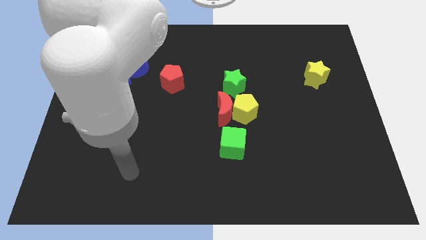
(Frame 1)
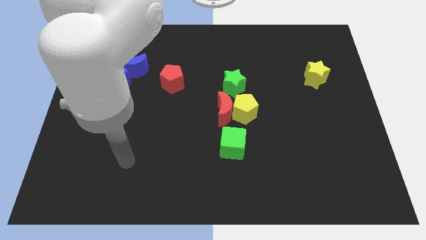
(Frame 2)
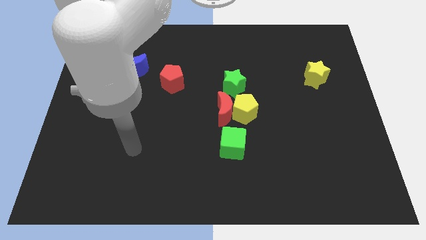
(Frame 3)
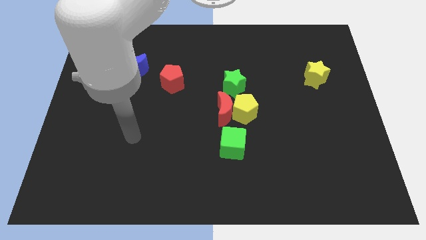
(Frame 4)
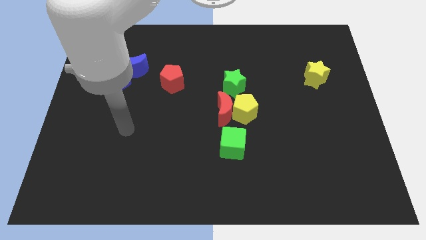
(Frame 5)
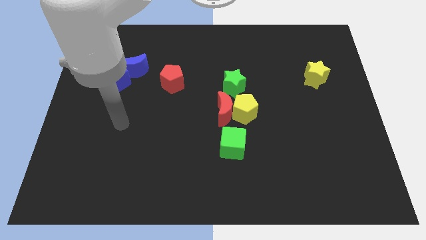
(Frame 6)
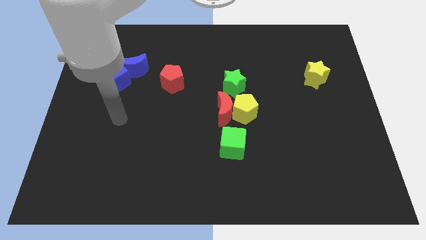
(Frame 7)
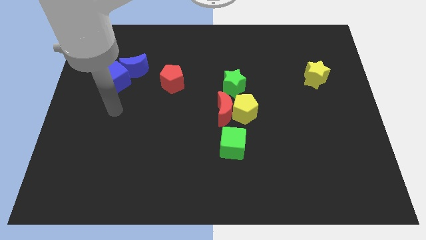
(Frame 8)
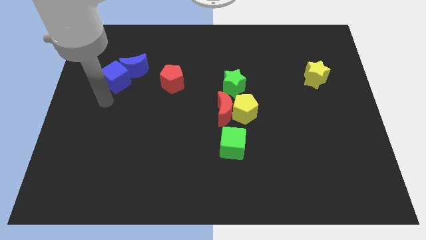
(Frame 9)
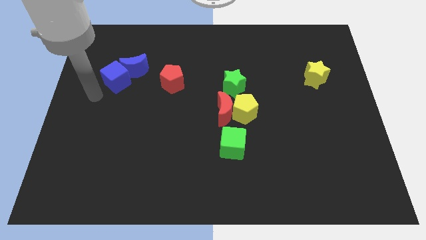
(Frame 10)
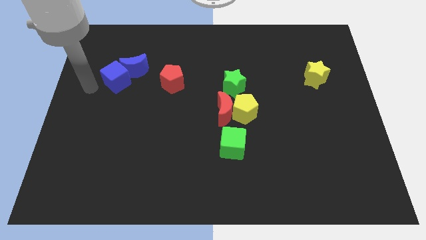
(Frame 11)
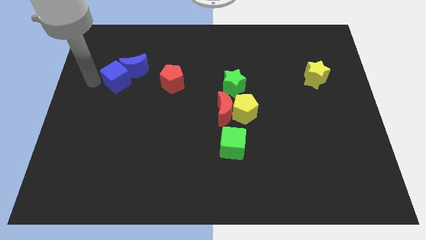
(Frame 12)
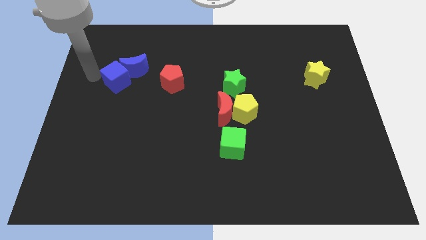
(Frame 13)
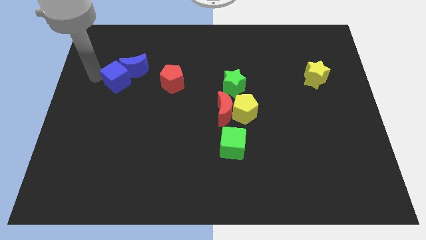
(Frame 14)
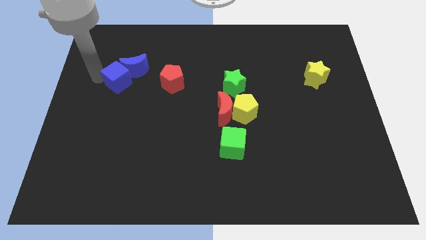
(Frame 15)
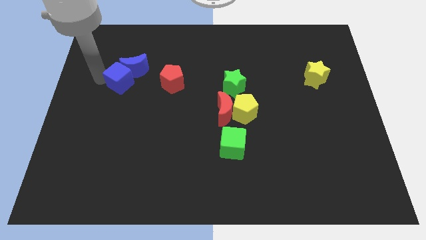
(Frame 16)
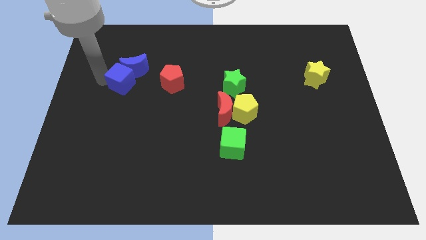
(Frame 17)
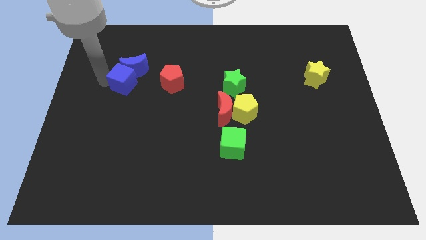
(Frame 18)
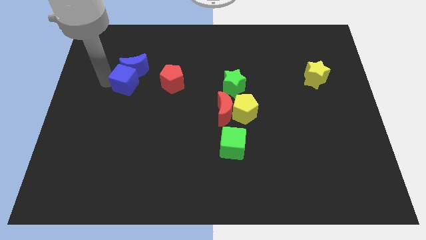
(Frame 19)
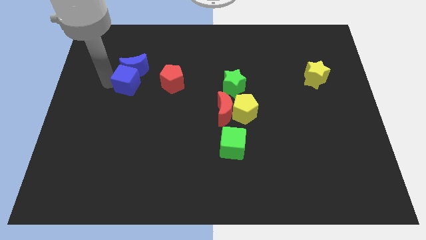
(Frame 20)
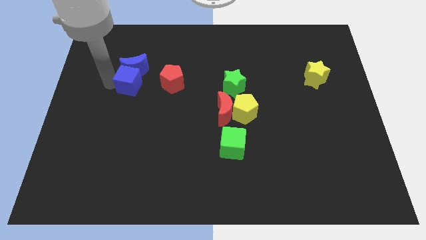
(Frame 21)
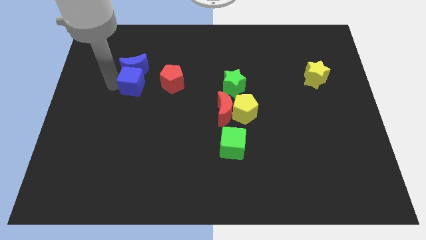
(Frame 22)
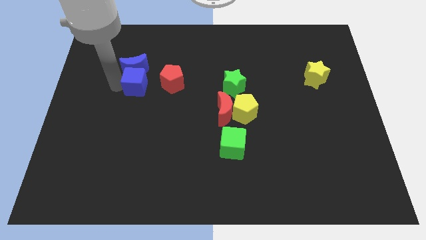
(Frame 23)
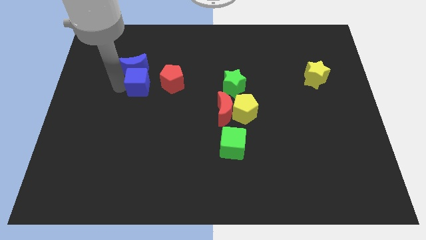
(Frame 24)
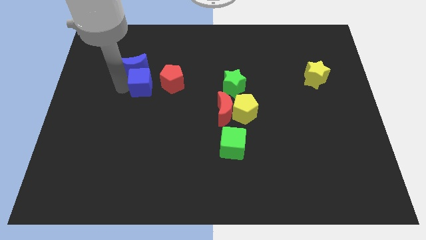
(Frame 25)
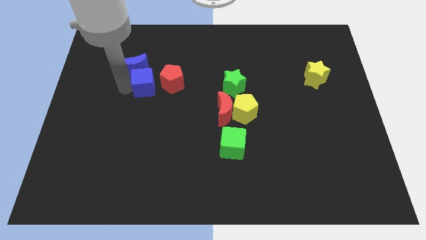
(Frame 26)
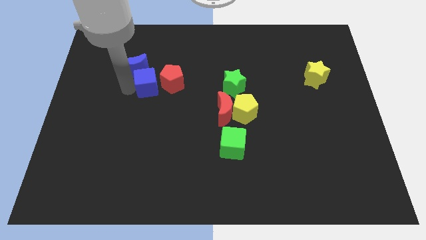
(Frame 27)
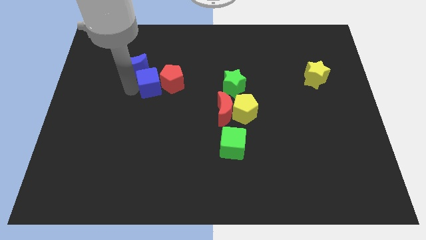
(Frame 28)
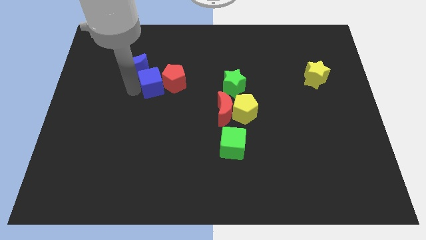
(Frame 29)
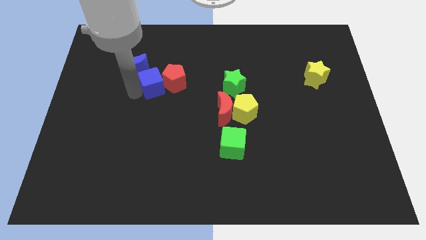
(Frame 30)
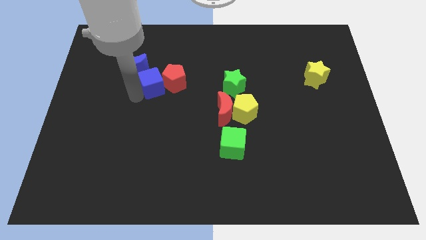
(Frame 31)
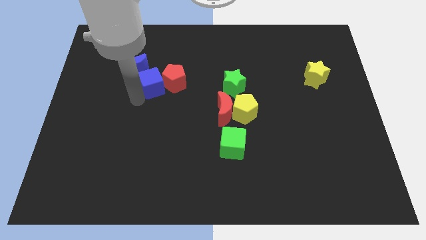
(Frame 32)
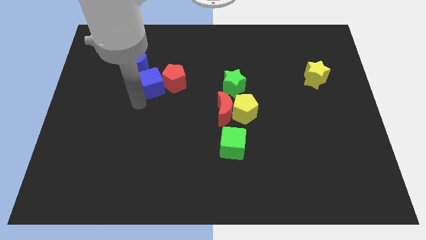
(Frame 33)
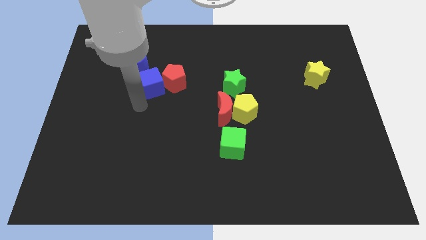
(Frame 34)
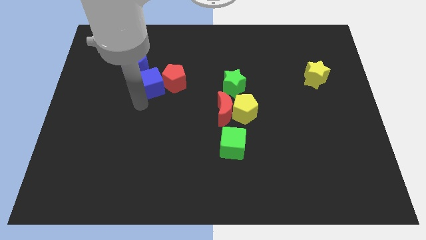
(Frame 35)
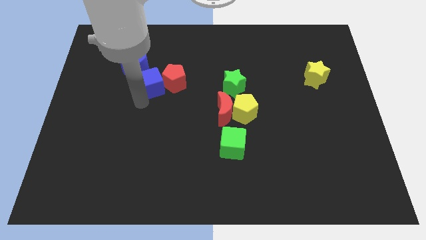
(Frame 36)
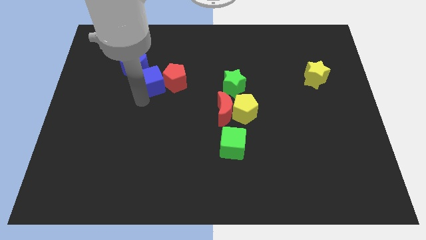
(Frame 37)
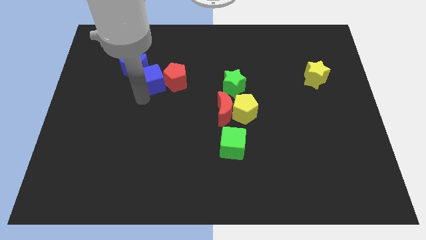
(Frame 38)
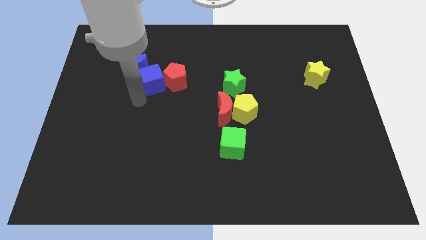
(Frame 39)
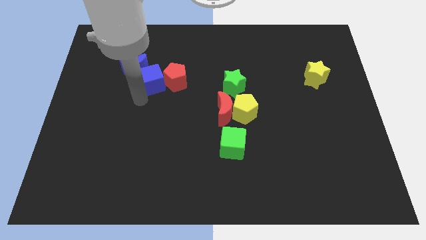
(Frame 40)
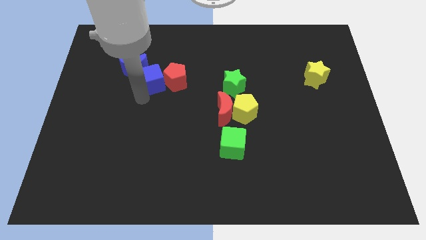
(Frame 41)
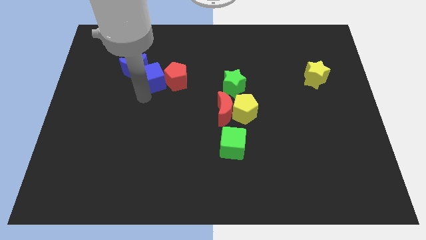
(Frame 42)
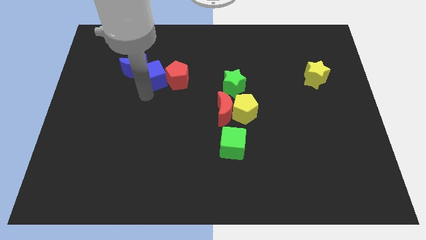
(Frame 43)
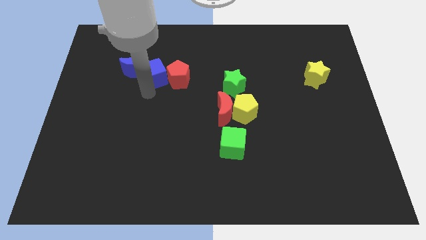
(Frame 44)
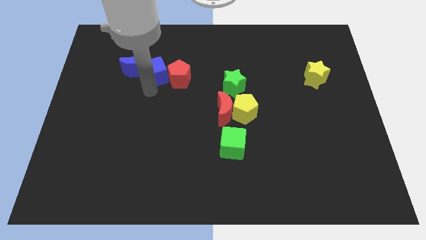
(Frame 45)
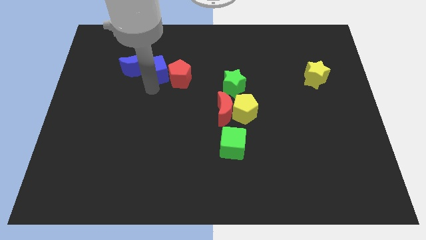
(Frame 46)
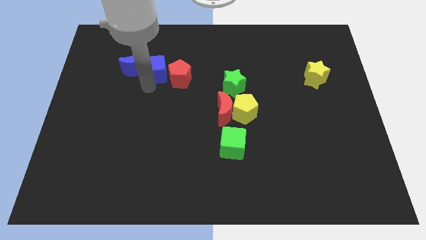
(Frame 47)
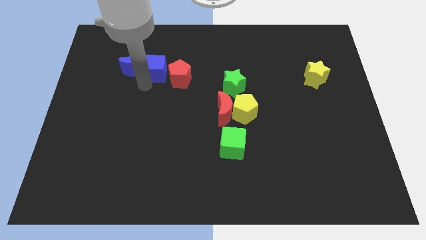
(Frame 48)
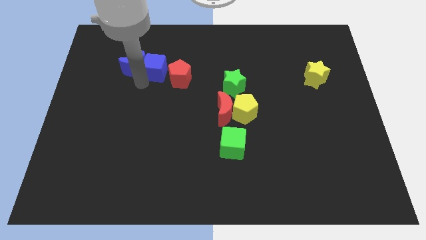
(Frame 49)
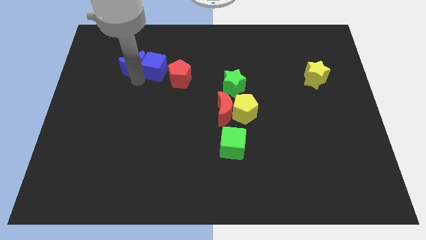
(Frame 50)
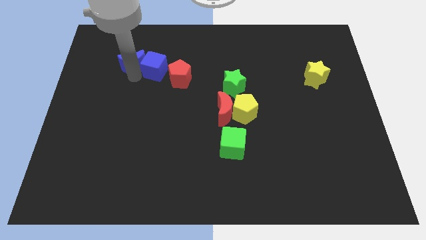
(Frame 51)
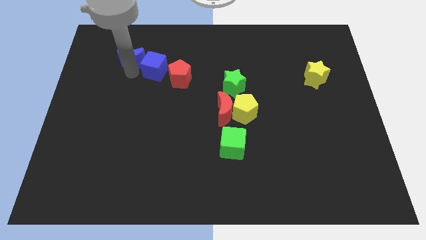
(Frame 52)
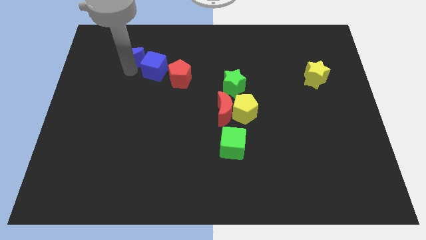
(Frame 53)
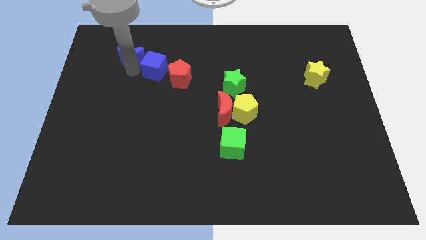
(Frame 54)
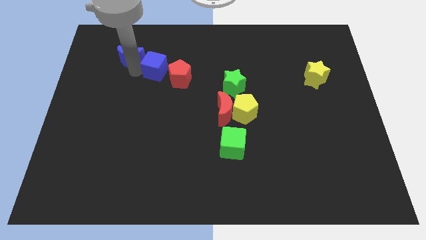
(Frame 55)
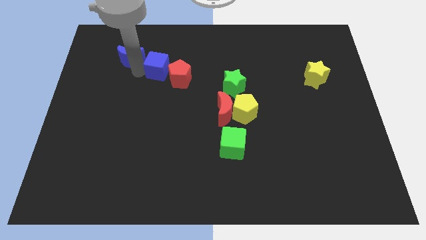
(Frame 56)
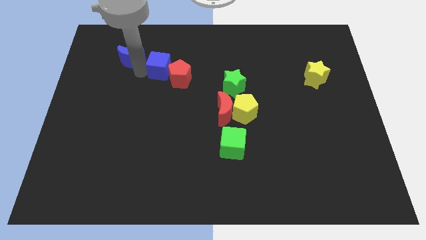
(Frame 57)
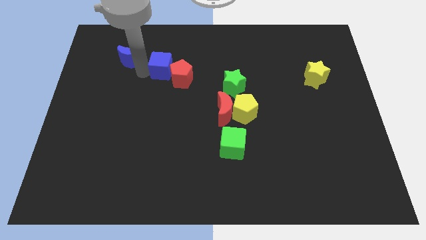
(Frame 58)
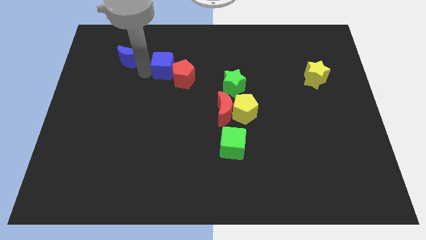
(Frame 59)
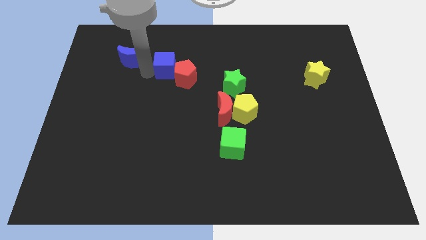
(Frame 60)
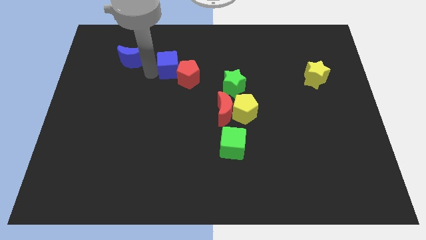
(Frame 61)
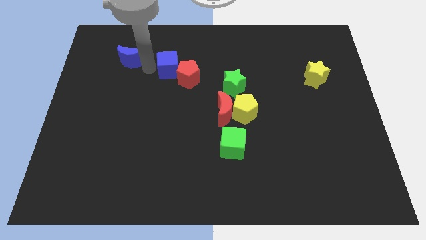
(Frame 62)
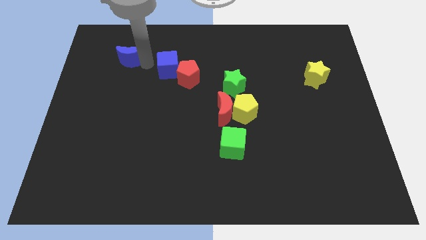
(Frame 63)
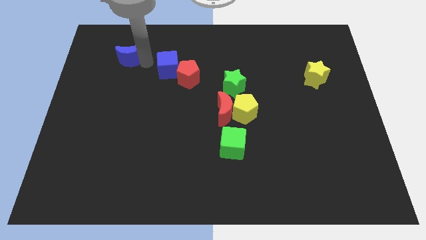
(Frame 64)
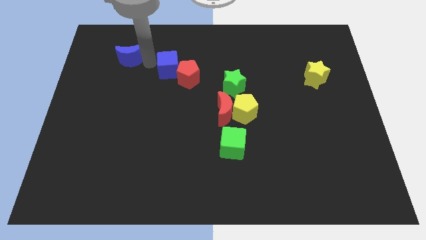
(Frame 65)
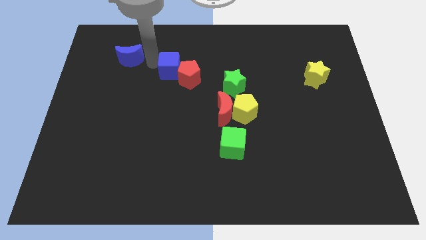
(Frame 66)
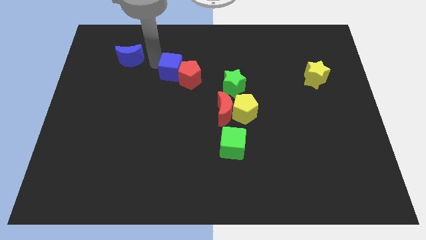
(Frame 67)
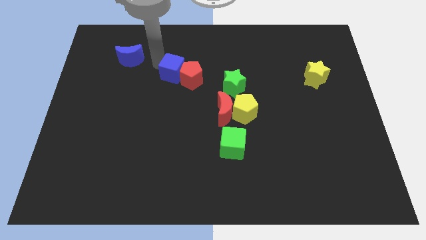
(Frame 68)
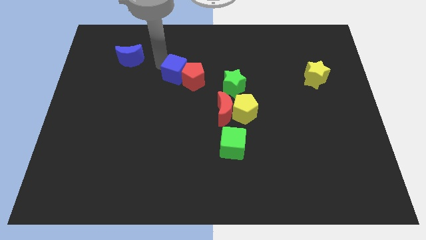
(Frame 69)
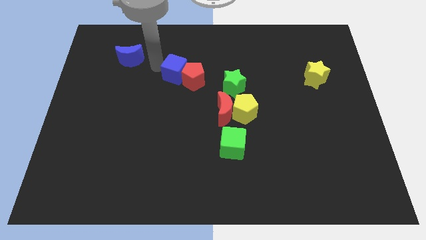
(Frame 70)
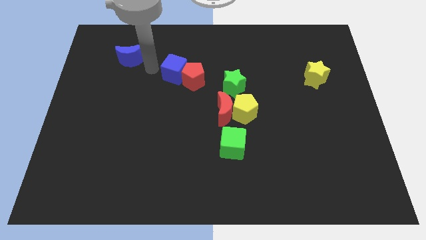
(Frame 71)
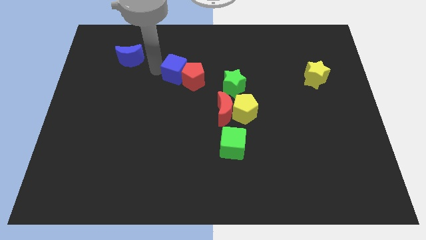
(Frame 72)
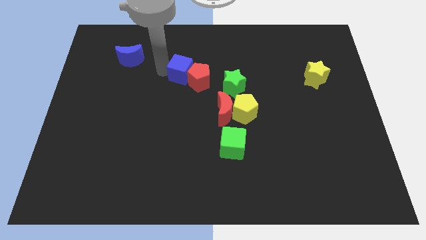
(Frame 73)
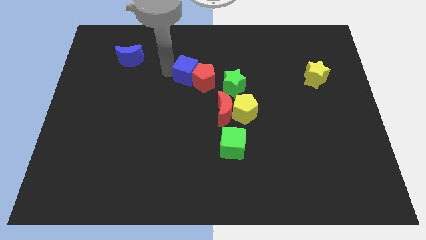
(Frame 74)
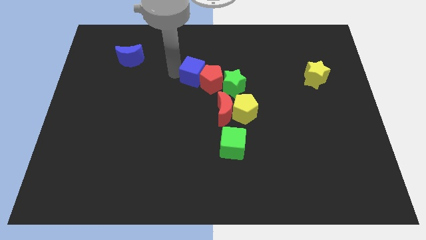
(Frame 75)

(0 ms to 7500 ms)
push the blue cube to the top left side of the green star
